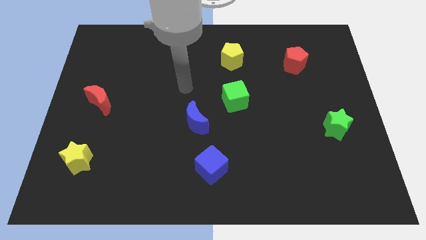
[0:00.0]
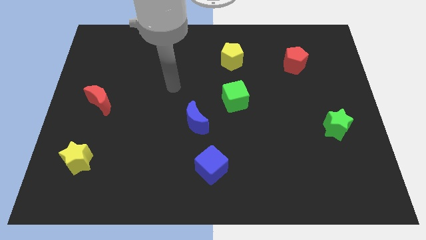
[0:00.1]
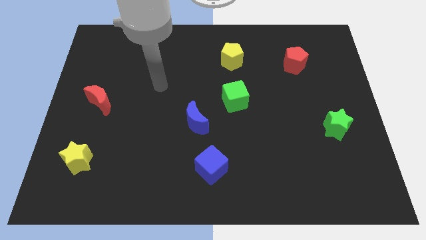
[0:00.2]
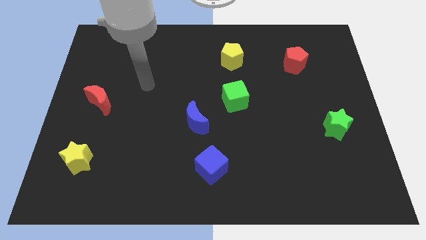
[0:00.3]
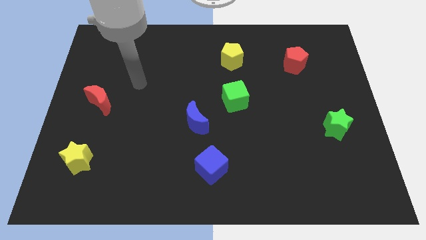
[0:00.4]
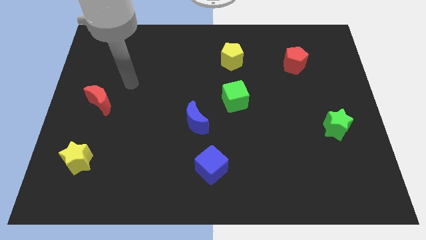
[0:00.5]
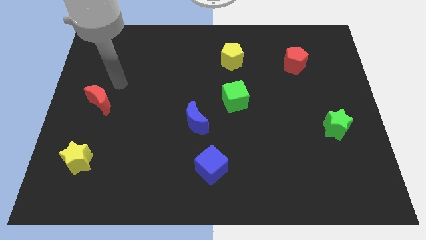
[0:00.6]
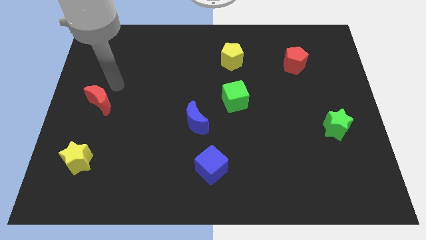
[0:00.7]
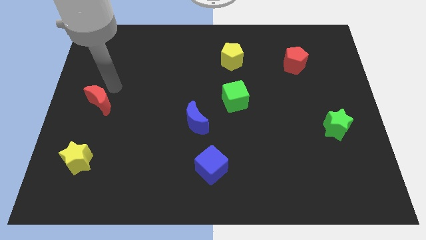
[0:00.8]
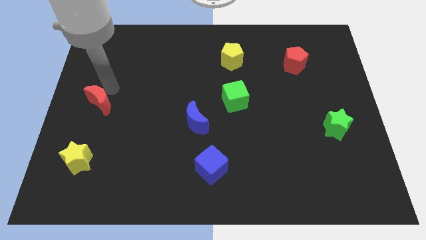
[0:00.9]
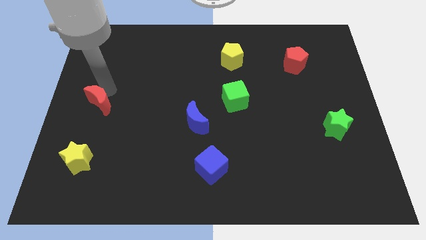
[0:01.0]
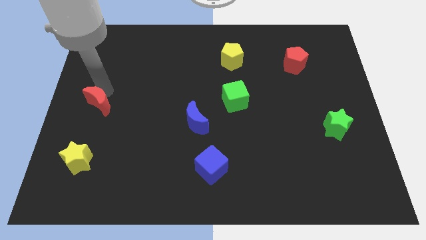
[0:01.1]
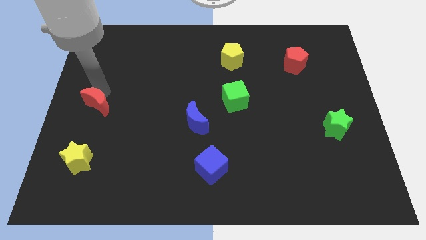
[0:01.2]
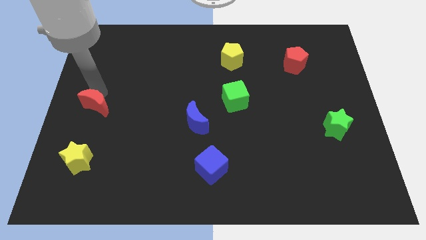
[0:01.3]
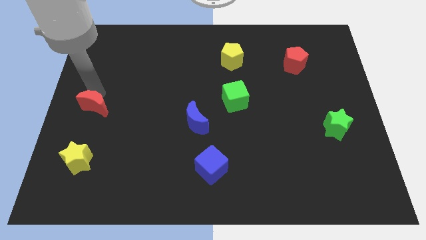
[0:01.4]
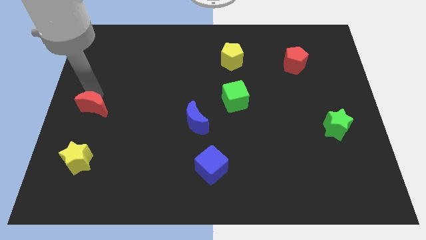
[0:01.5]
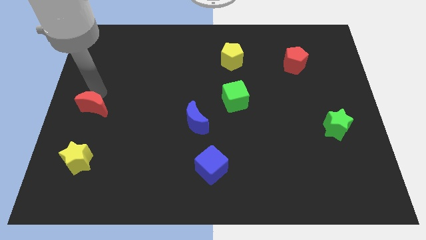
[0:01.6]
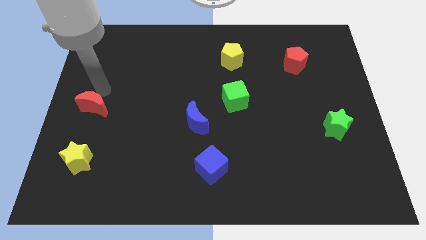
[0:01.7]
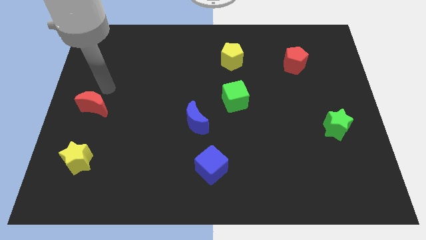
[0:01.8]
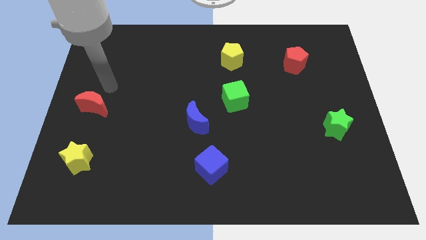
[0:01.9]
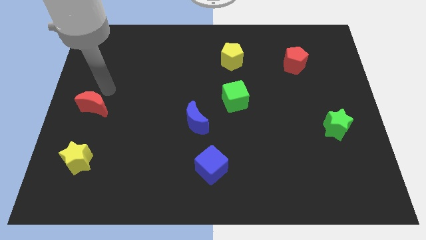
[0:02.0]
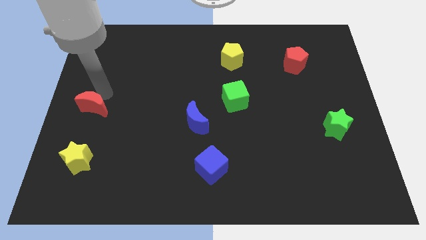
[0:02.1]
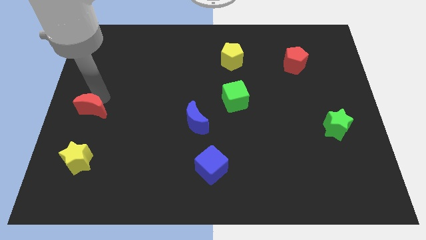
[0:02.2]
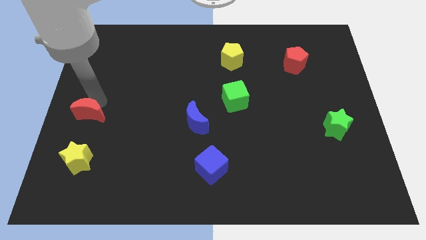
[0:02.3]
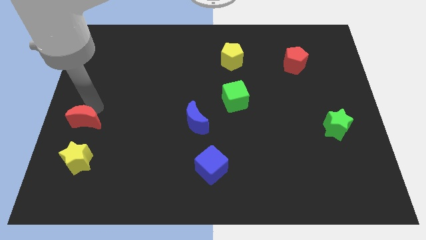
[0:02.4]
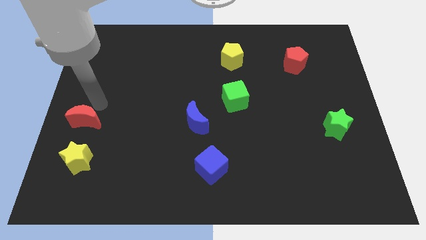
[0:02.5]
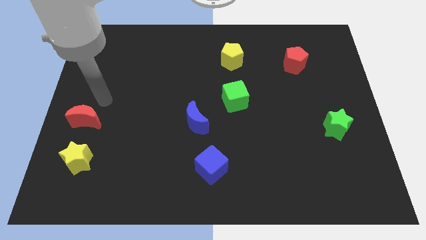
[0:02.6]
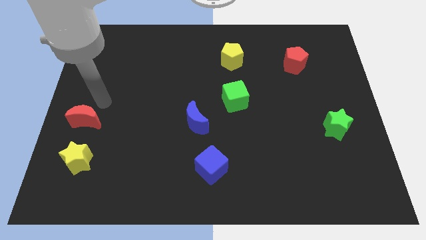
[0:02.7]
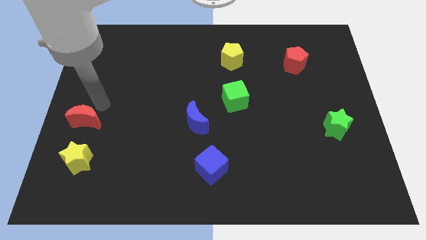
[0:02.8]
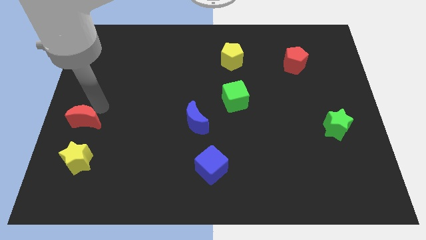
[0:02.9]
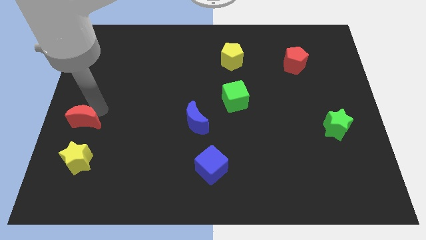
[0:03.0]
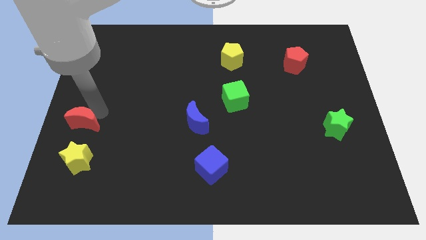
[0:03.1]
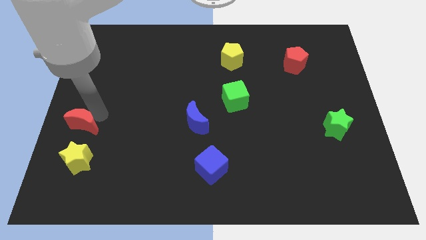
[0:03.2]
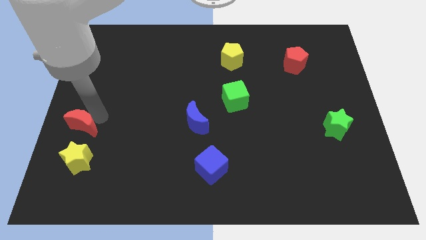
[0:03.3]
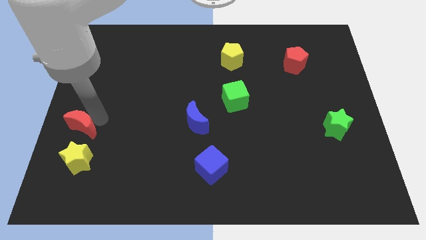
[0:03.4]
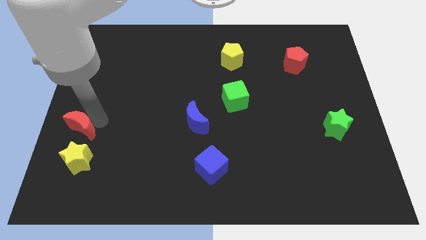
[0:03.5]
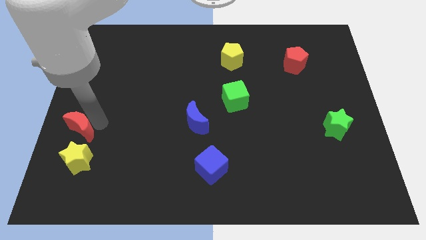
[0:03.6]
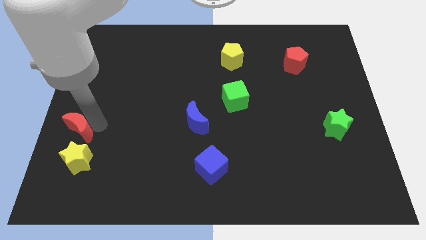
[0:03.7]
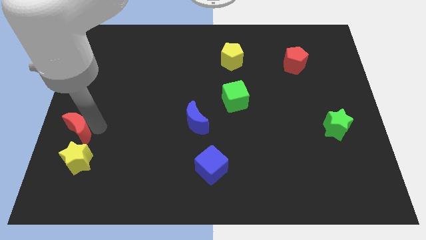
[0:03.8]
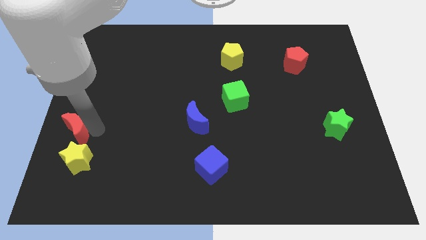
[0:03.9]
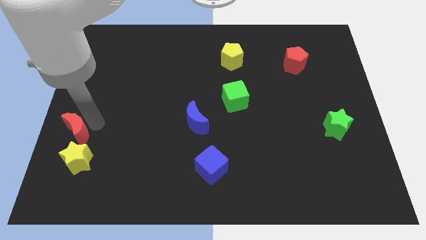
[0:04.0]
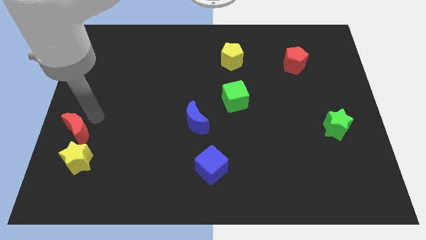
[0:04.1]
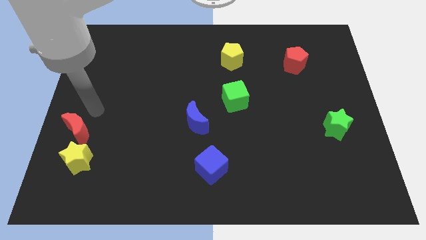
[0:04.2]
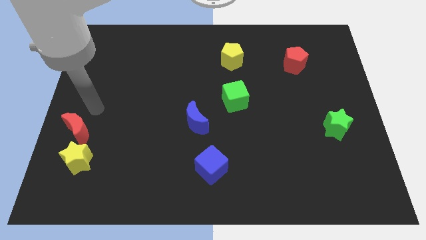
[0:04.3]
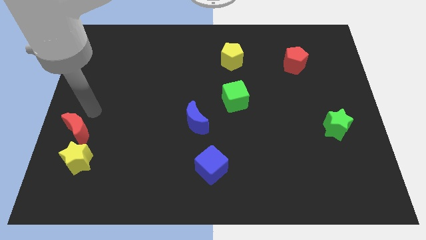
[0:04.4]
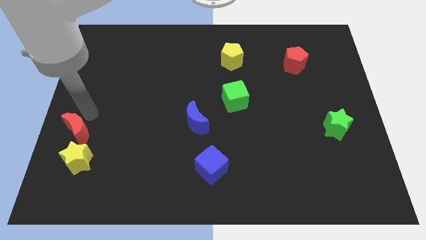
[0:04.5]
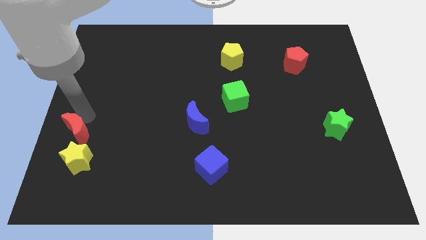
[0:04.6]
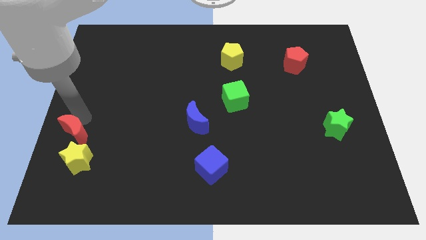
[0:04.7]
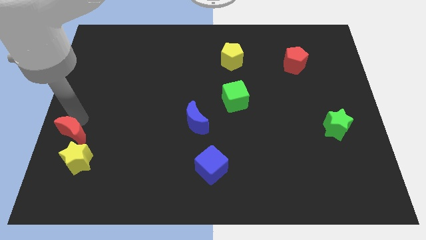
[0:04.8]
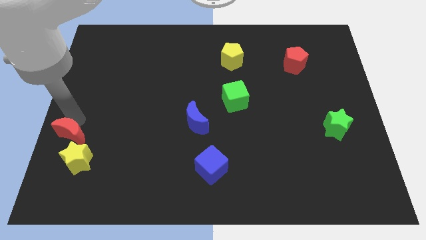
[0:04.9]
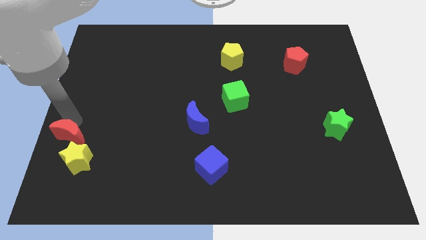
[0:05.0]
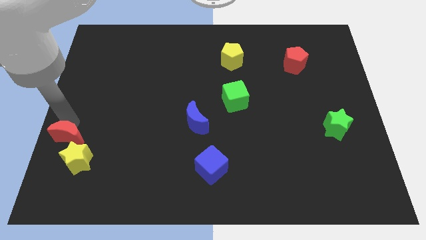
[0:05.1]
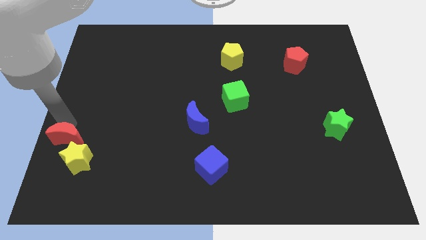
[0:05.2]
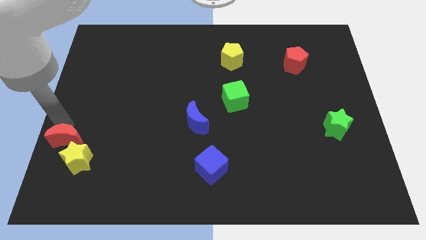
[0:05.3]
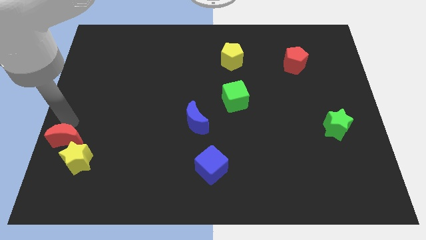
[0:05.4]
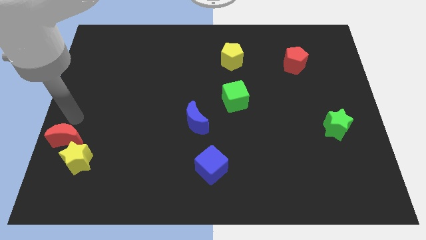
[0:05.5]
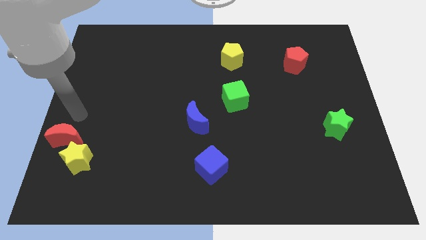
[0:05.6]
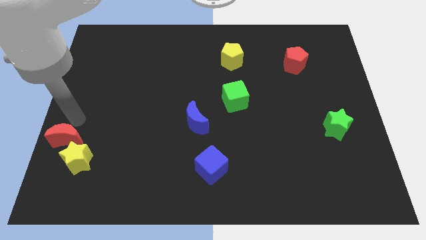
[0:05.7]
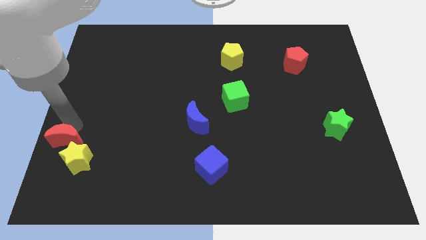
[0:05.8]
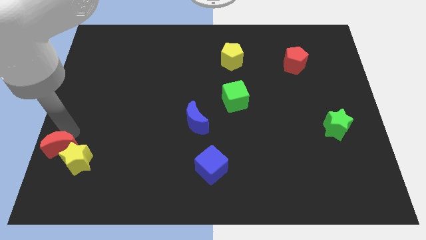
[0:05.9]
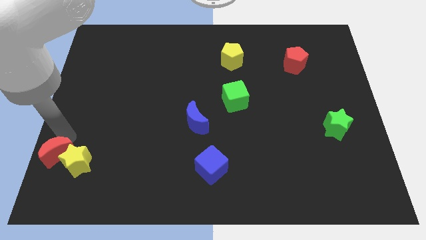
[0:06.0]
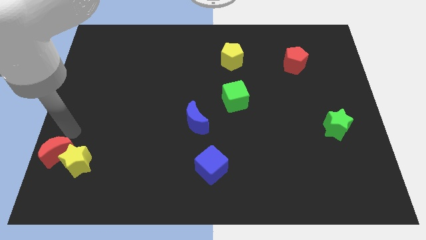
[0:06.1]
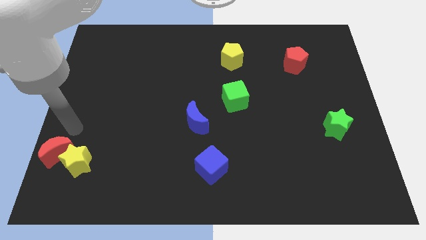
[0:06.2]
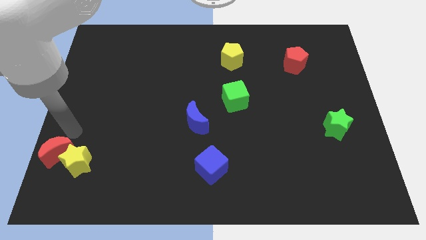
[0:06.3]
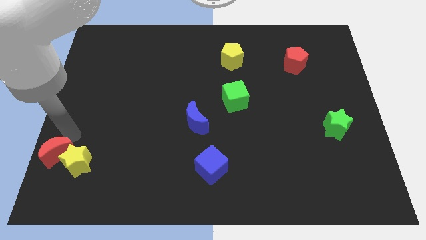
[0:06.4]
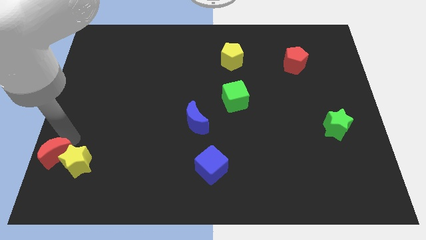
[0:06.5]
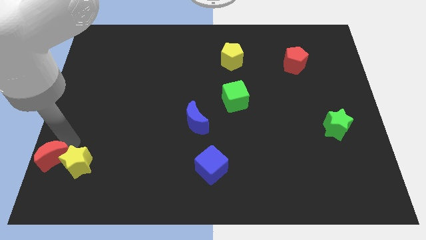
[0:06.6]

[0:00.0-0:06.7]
slide the red moon to the bottom left
